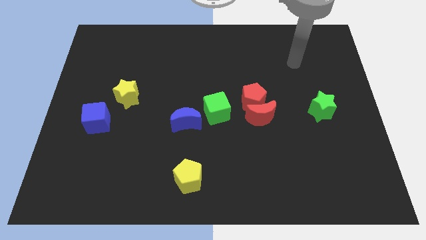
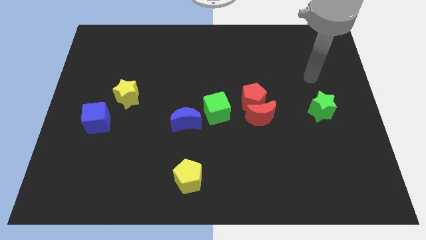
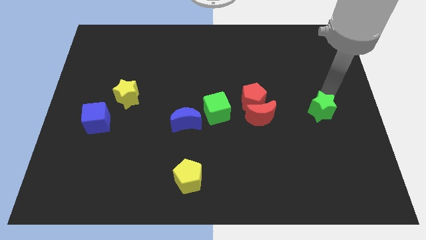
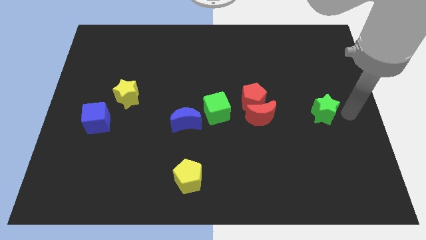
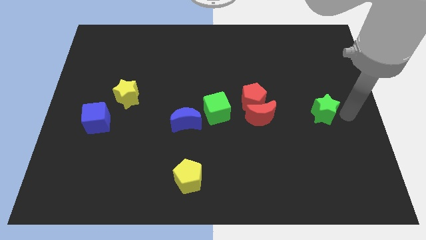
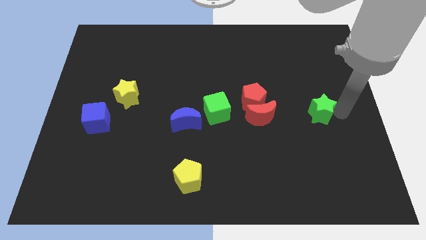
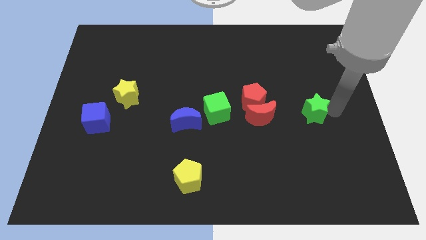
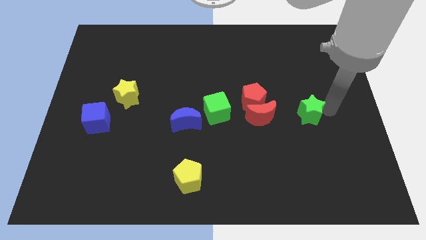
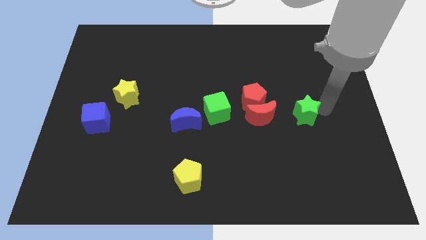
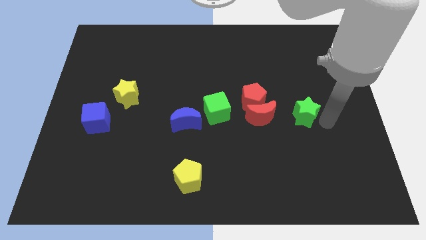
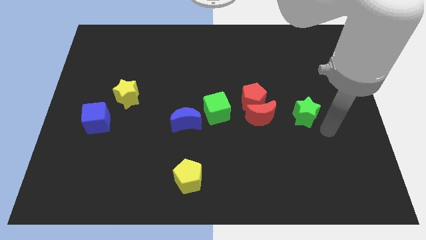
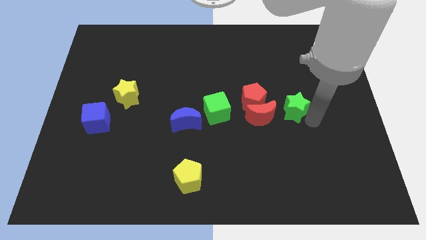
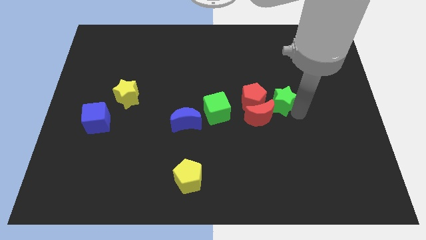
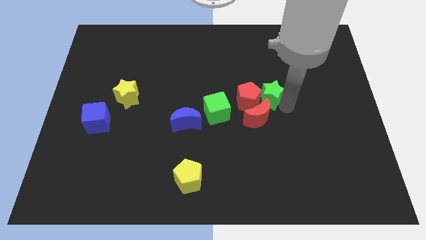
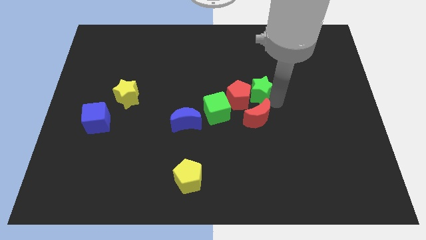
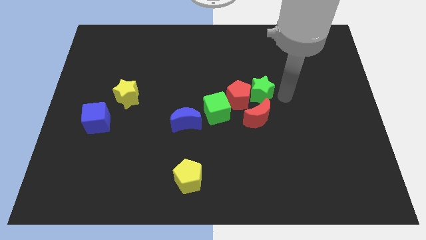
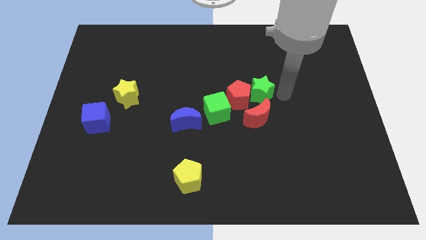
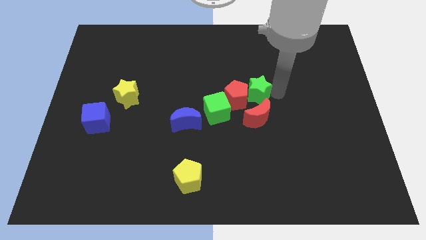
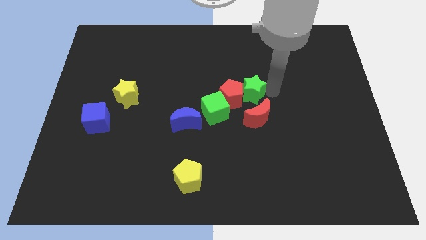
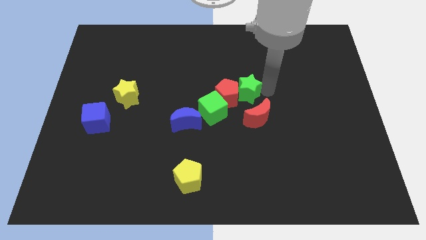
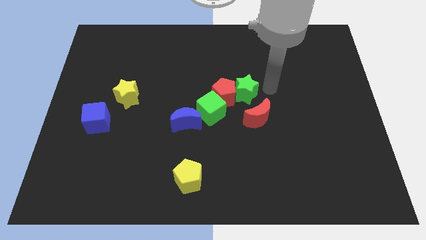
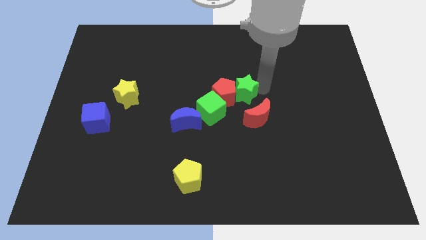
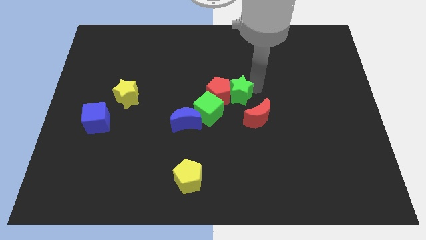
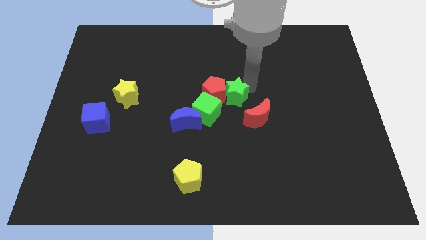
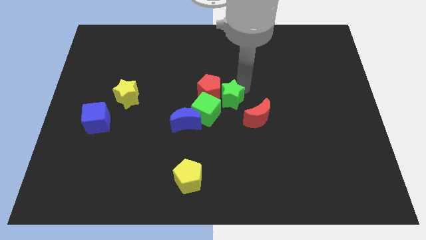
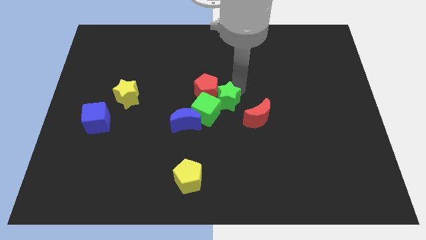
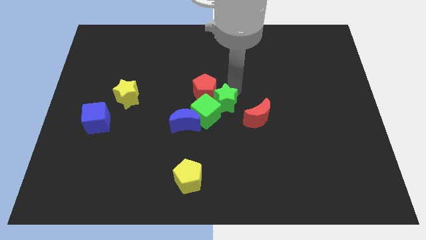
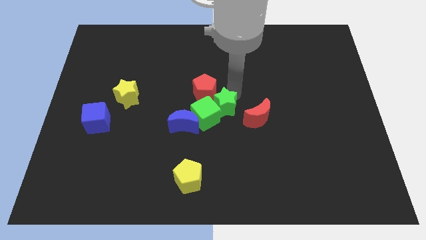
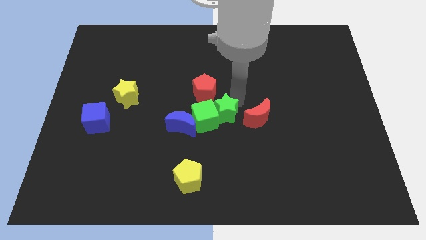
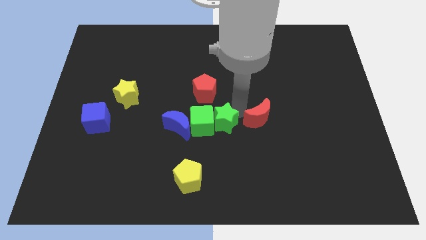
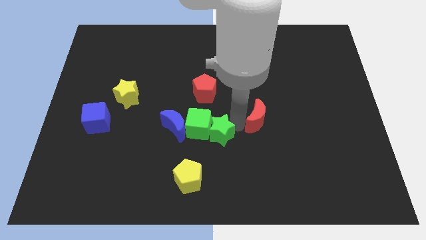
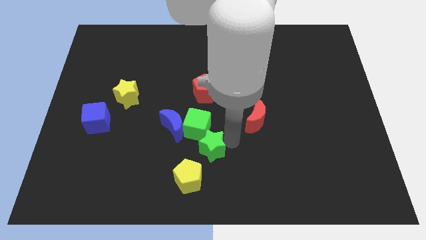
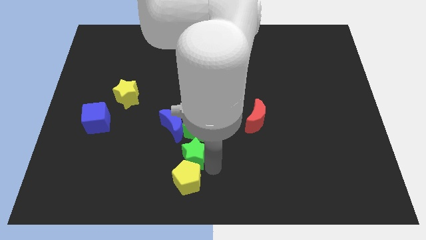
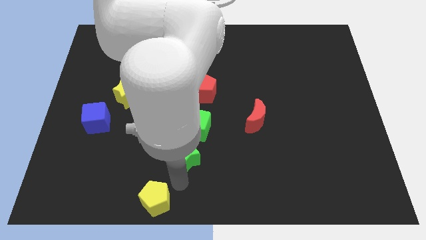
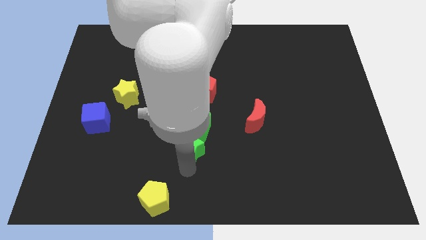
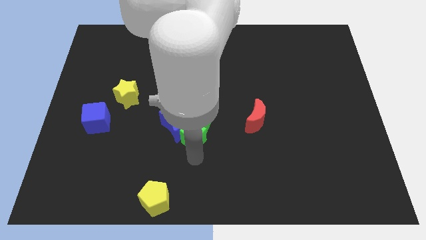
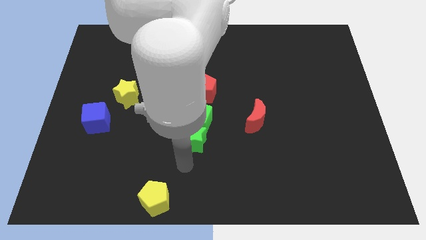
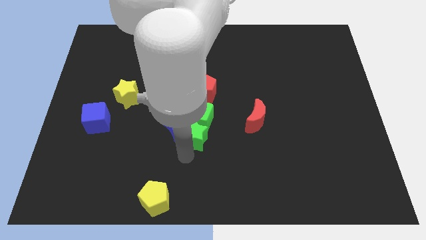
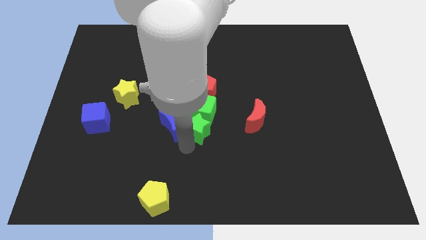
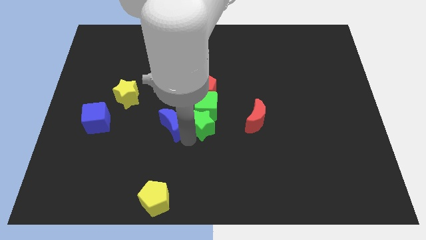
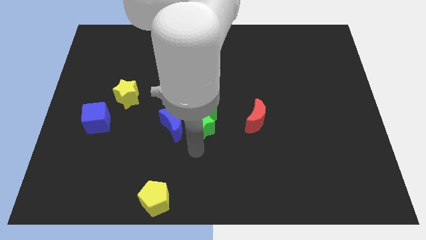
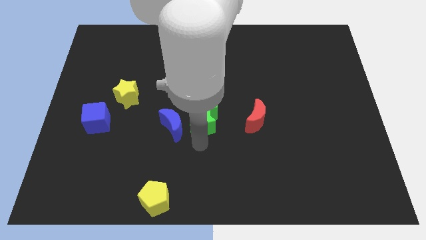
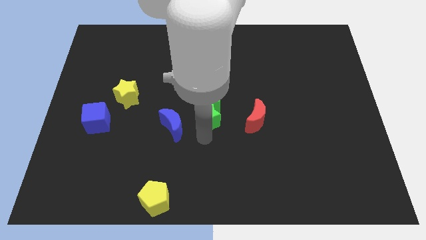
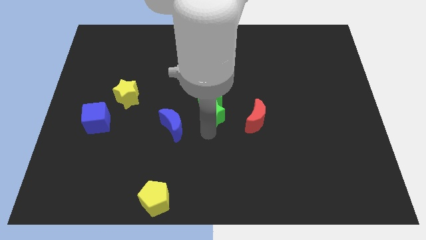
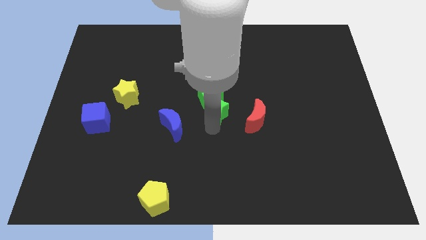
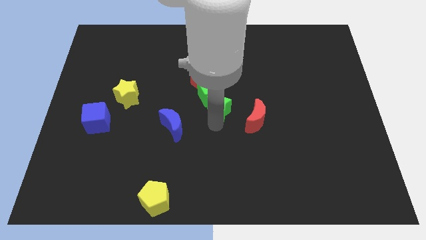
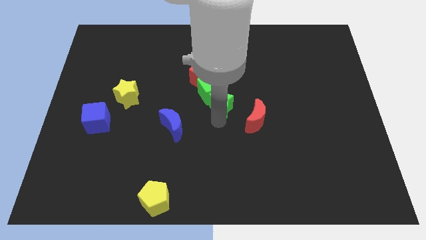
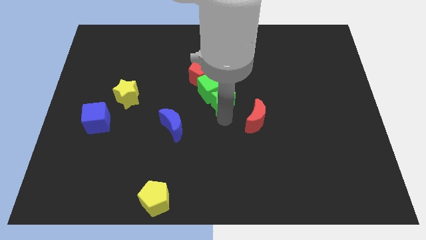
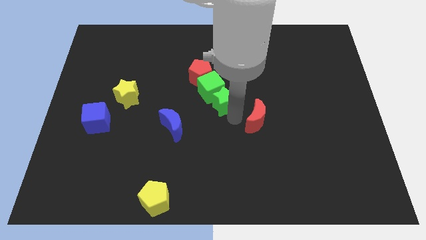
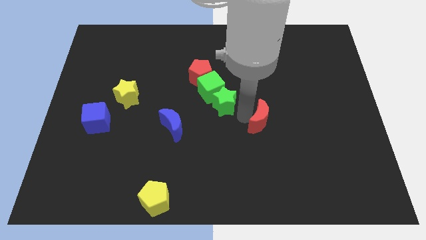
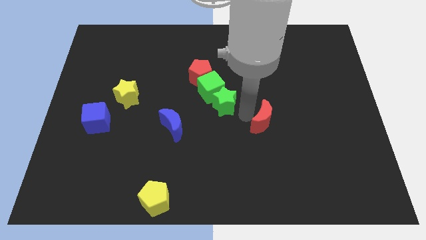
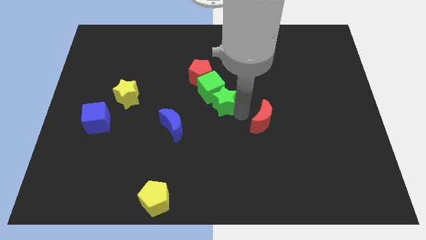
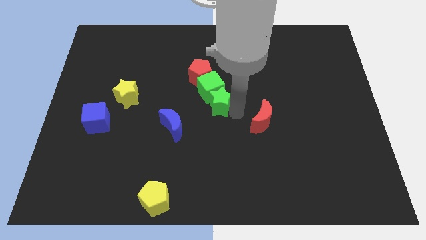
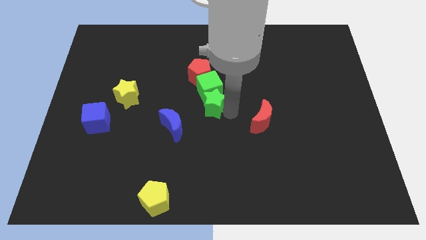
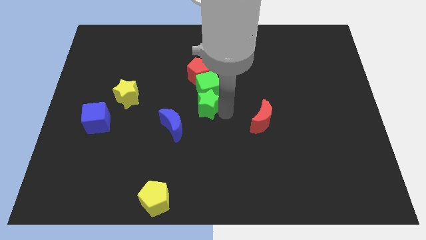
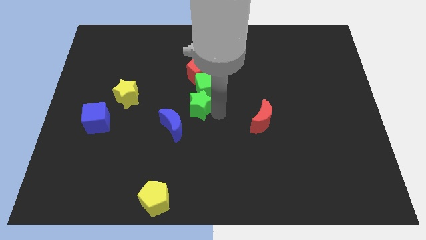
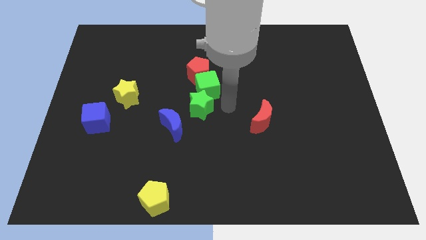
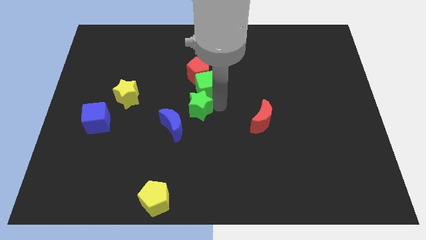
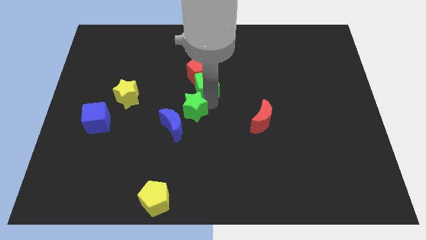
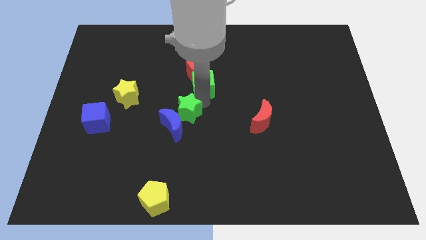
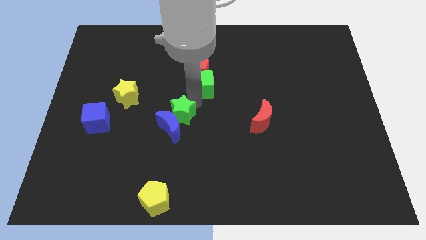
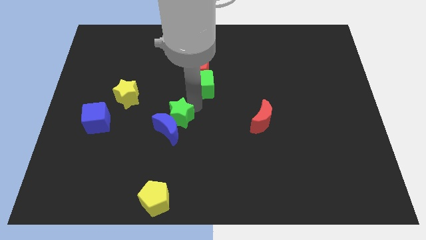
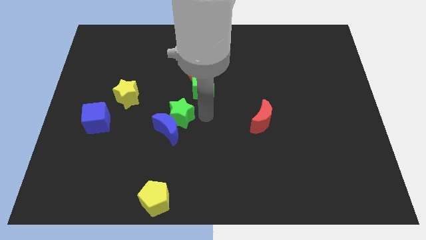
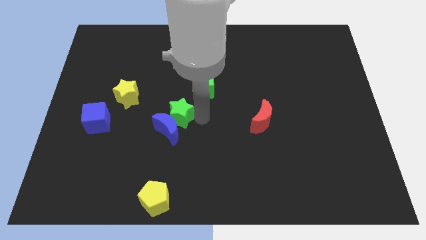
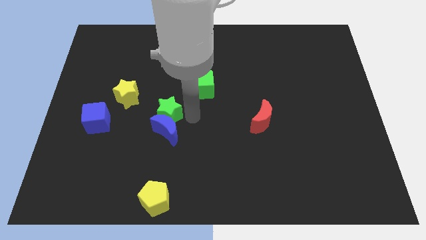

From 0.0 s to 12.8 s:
slide the green star to the top left side of the blue moon
